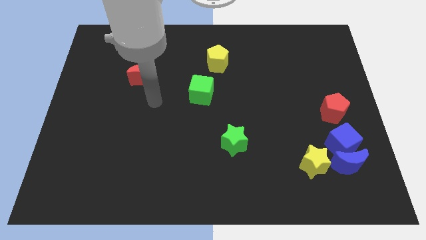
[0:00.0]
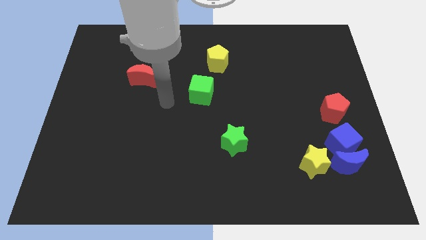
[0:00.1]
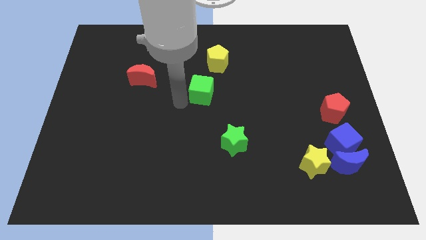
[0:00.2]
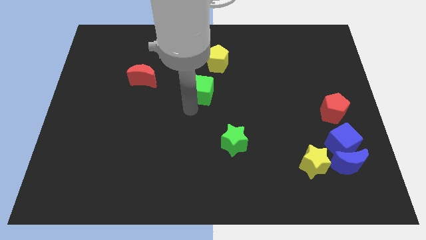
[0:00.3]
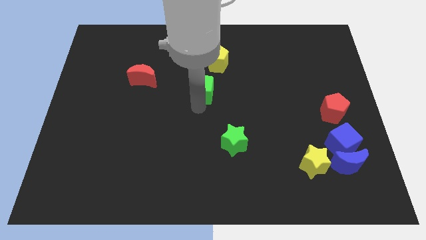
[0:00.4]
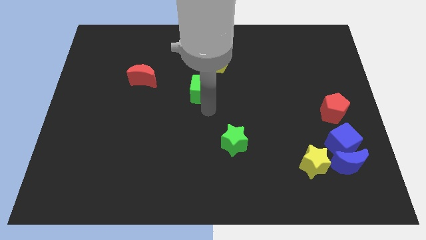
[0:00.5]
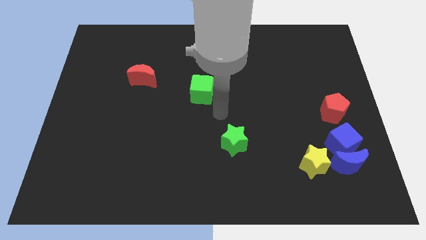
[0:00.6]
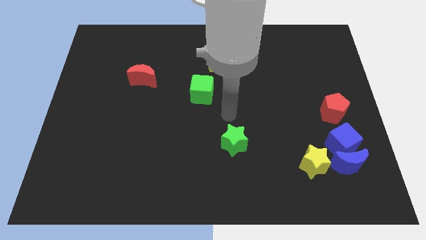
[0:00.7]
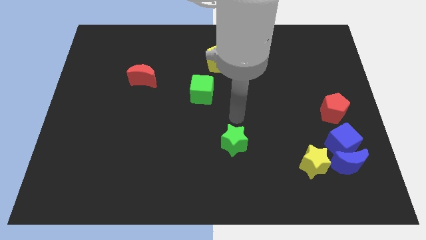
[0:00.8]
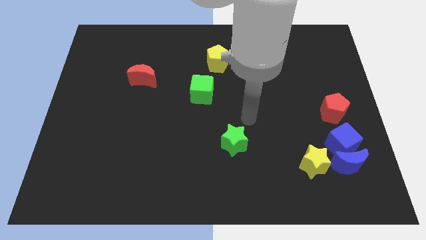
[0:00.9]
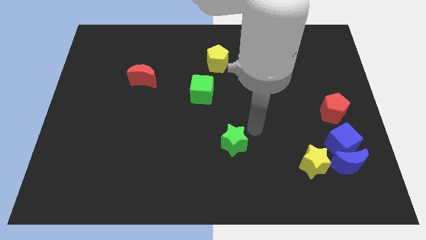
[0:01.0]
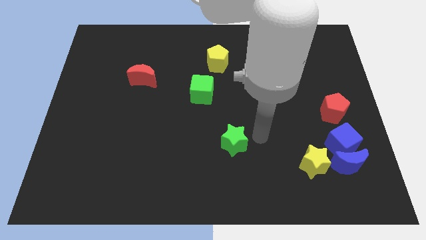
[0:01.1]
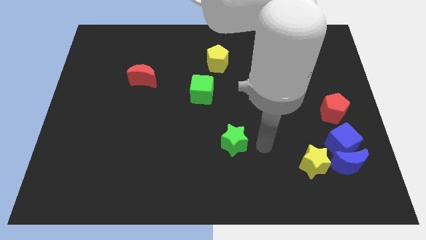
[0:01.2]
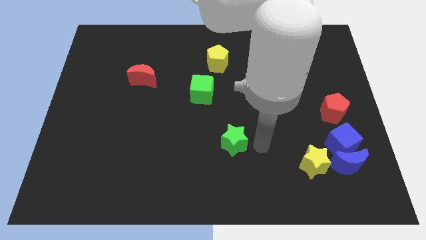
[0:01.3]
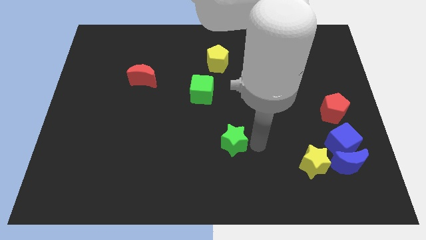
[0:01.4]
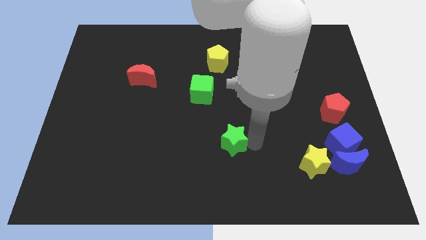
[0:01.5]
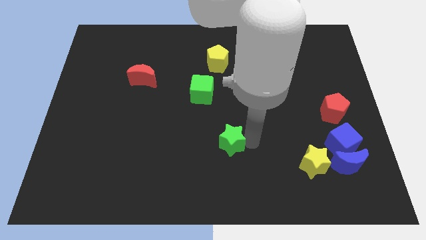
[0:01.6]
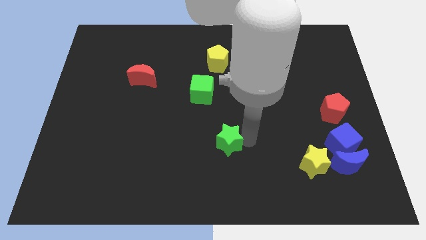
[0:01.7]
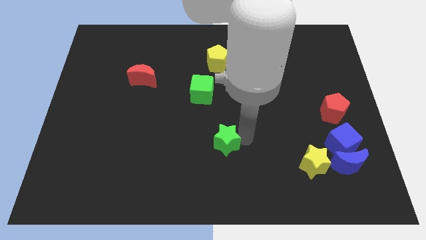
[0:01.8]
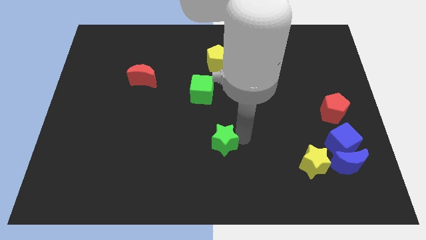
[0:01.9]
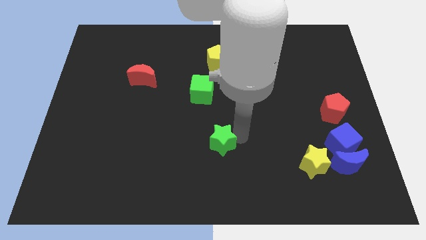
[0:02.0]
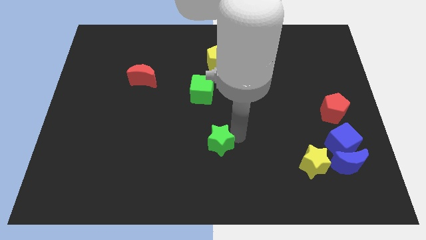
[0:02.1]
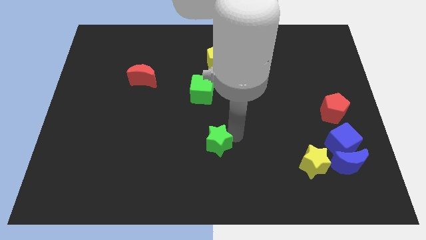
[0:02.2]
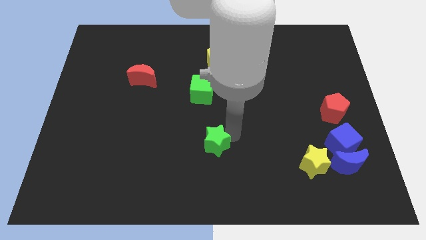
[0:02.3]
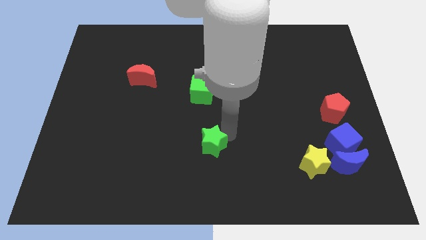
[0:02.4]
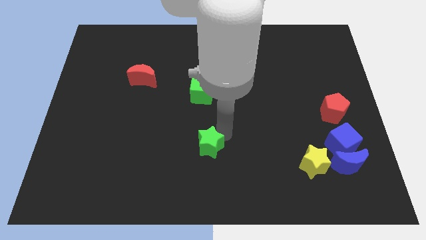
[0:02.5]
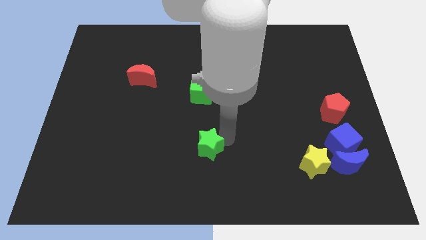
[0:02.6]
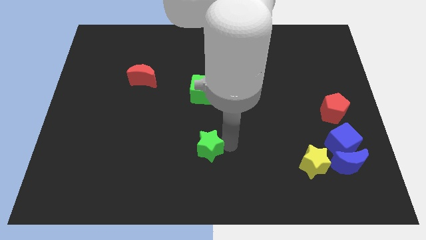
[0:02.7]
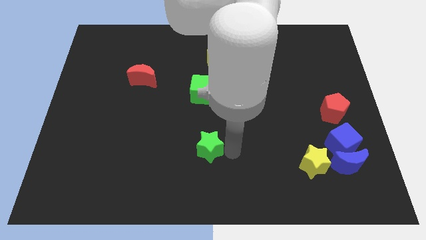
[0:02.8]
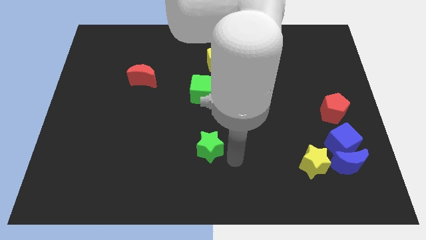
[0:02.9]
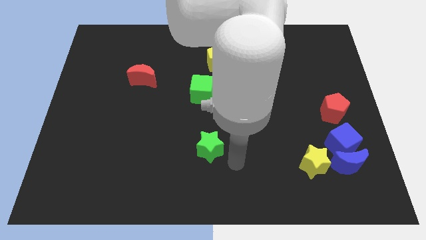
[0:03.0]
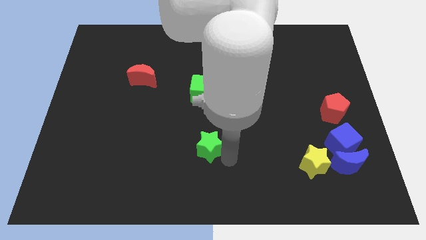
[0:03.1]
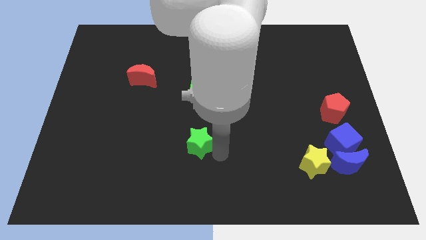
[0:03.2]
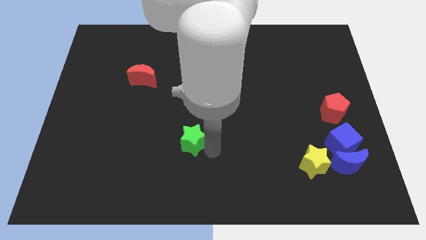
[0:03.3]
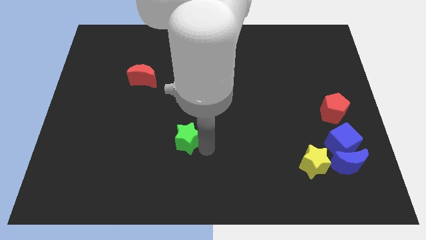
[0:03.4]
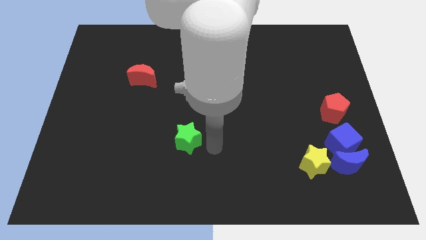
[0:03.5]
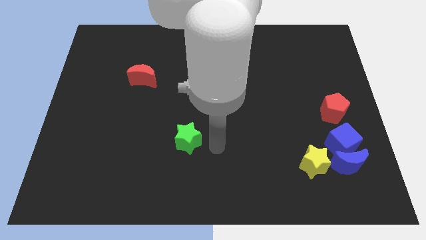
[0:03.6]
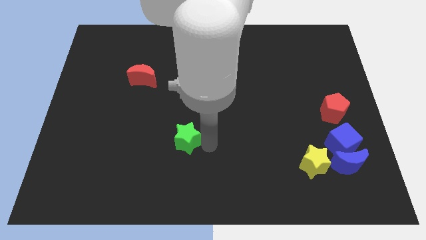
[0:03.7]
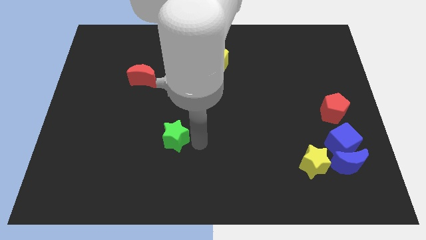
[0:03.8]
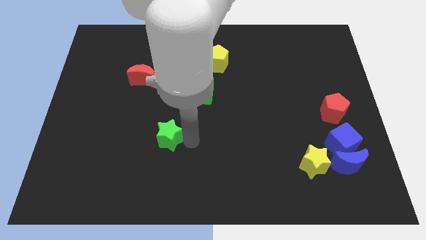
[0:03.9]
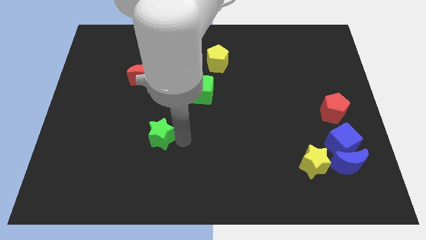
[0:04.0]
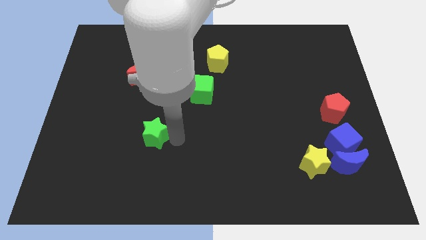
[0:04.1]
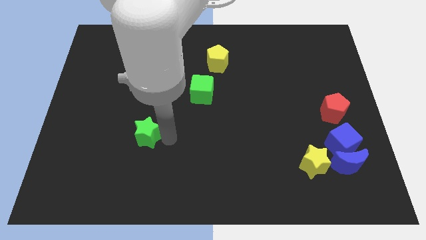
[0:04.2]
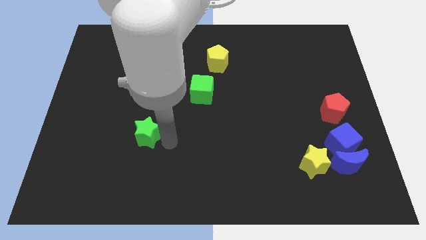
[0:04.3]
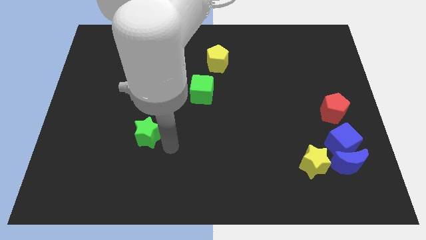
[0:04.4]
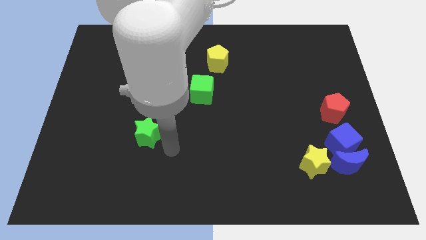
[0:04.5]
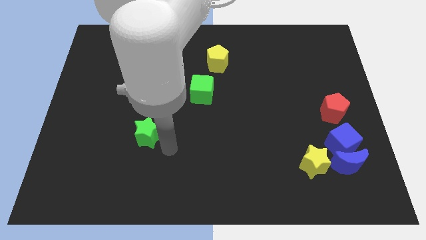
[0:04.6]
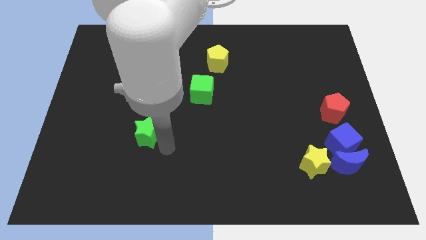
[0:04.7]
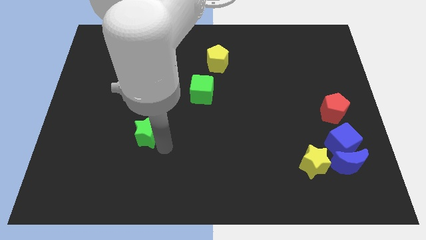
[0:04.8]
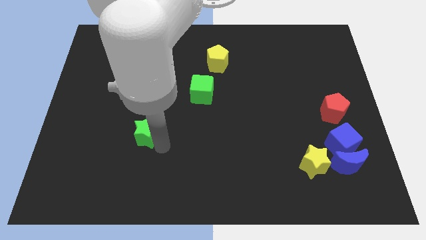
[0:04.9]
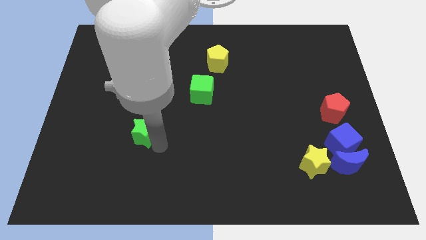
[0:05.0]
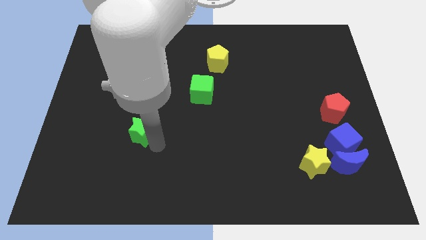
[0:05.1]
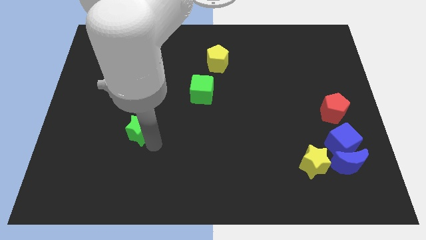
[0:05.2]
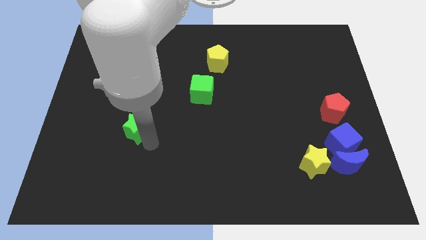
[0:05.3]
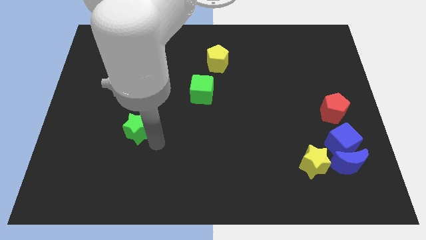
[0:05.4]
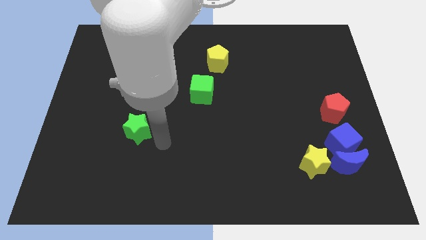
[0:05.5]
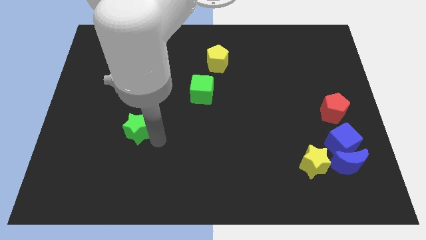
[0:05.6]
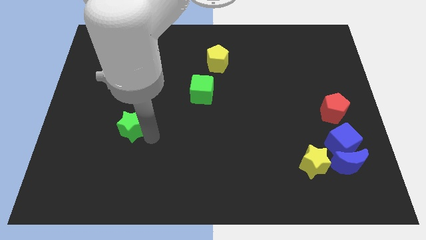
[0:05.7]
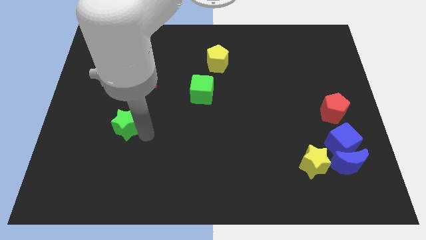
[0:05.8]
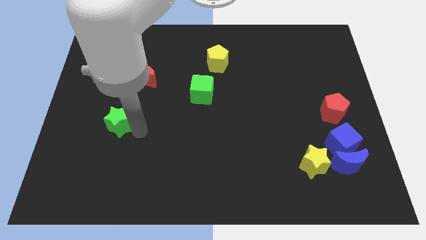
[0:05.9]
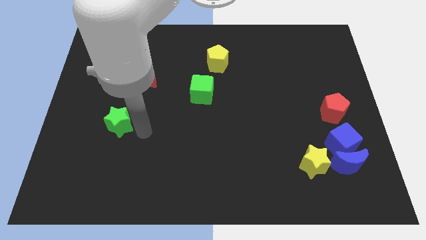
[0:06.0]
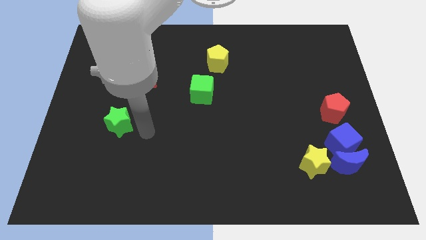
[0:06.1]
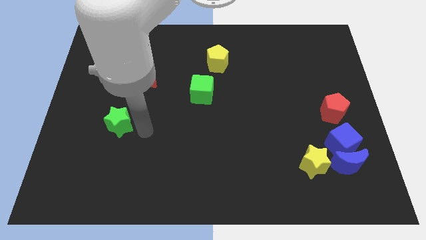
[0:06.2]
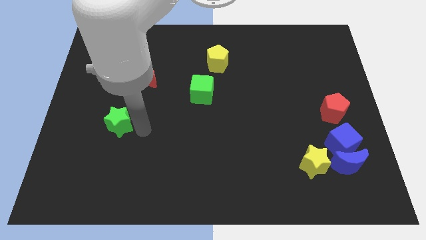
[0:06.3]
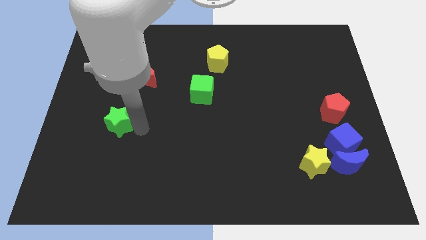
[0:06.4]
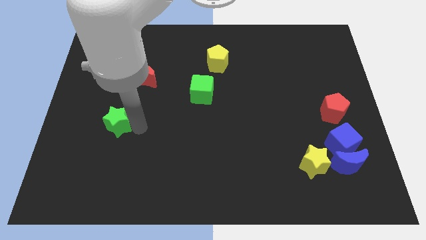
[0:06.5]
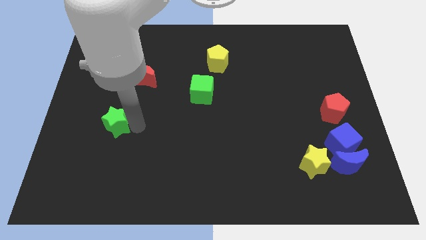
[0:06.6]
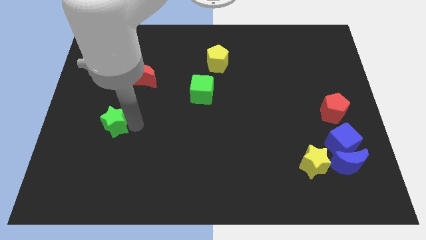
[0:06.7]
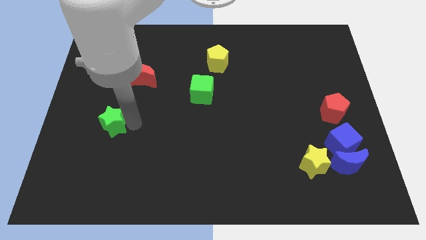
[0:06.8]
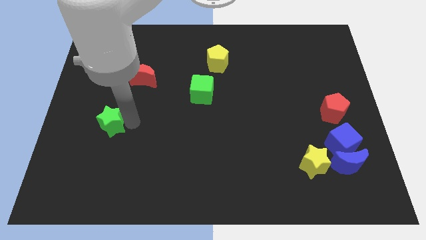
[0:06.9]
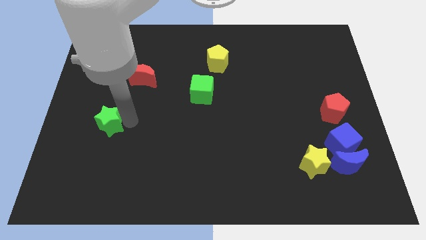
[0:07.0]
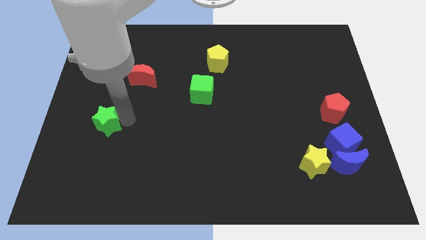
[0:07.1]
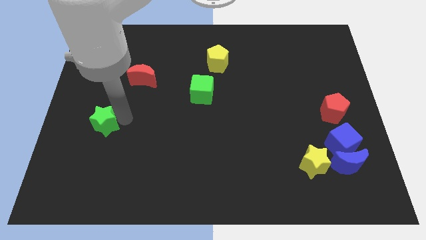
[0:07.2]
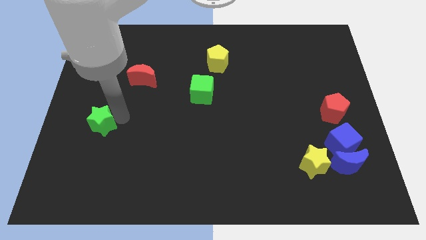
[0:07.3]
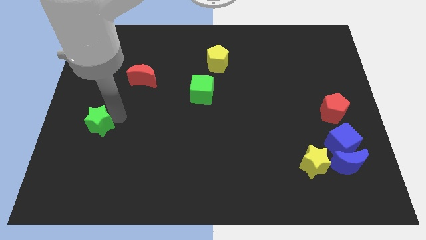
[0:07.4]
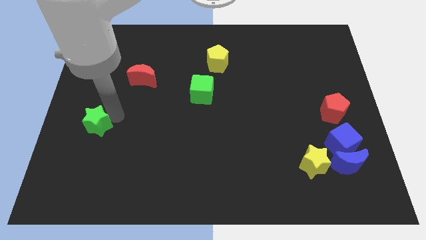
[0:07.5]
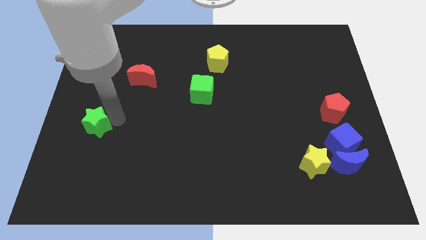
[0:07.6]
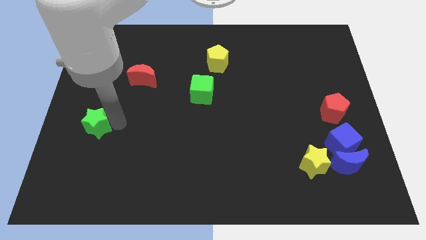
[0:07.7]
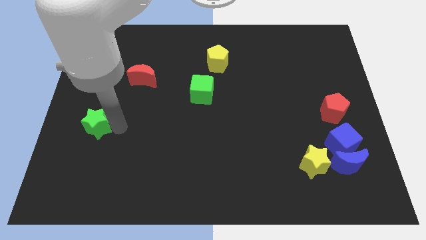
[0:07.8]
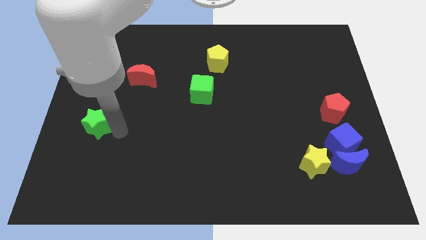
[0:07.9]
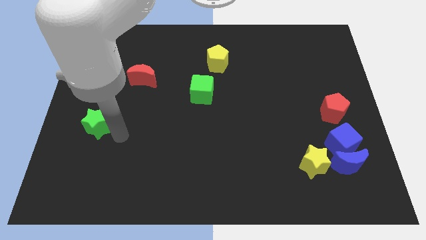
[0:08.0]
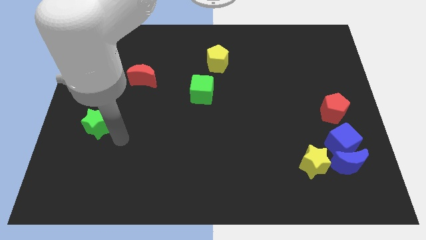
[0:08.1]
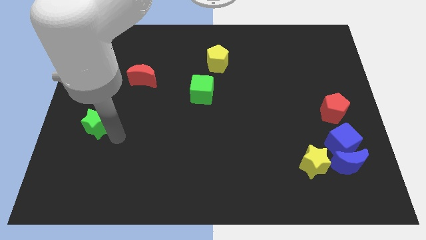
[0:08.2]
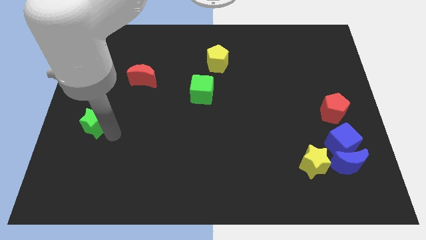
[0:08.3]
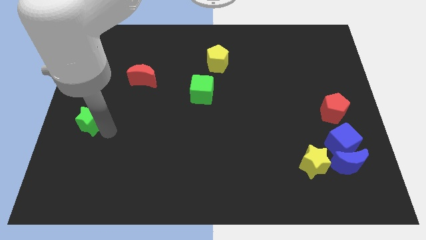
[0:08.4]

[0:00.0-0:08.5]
put the green star to the center left
